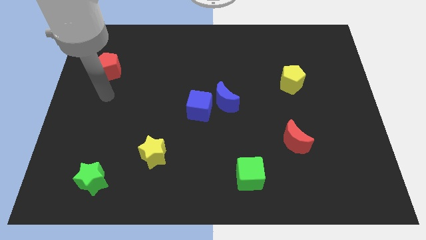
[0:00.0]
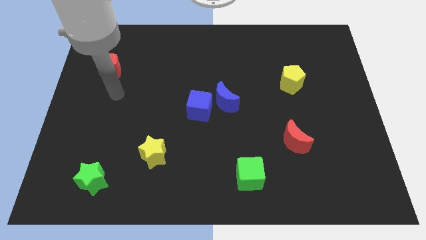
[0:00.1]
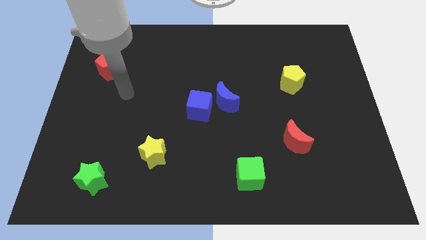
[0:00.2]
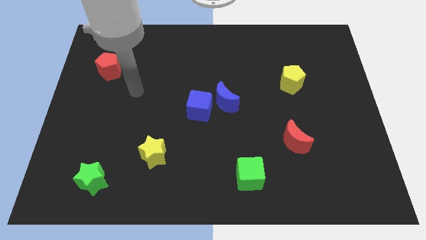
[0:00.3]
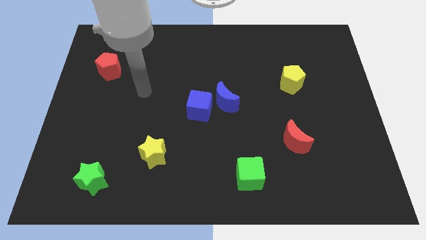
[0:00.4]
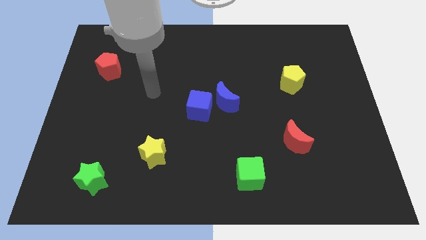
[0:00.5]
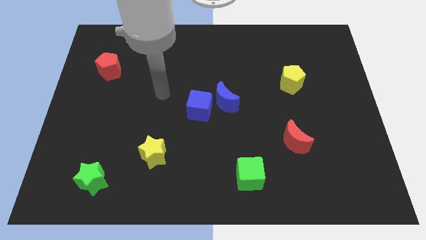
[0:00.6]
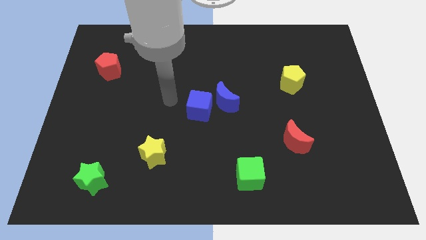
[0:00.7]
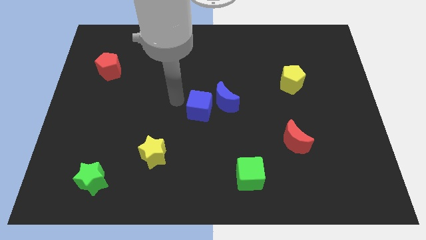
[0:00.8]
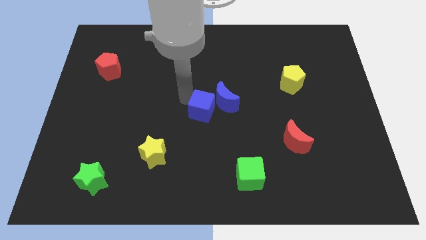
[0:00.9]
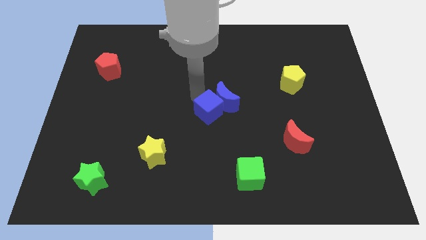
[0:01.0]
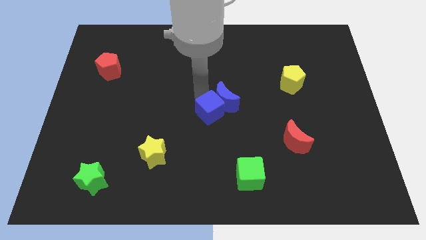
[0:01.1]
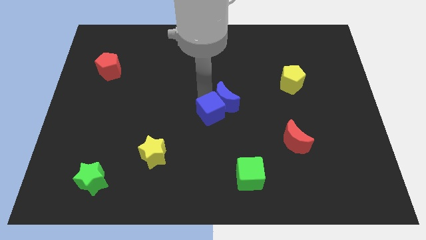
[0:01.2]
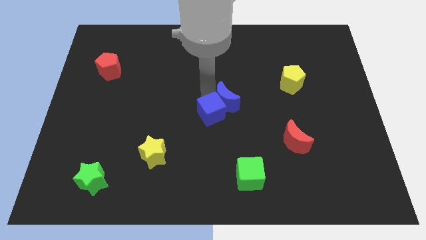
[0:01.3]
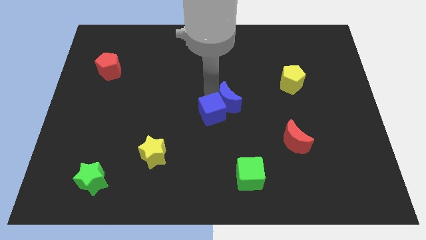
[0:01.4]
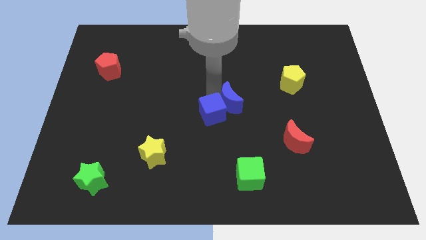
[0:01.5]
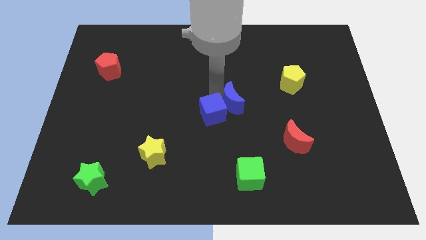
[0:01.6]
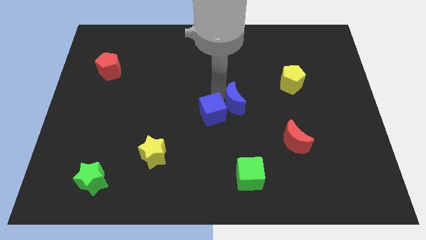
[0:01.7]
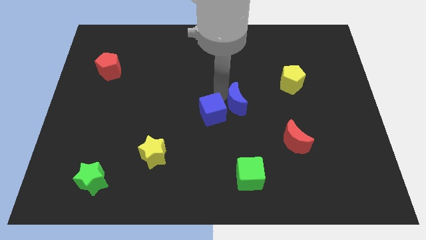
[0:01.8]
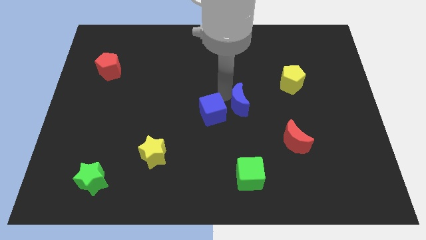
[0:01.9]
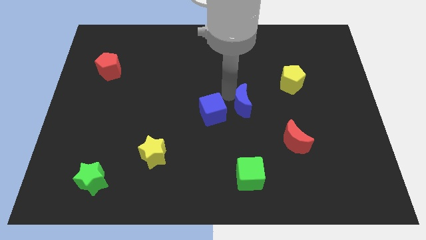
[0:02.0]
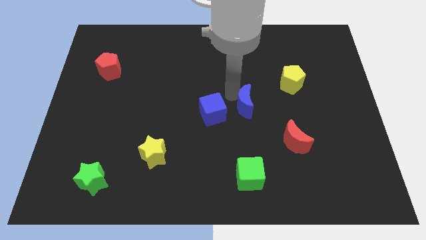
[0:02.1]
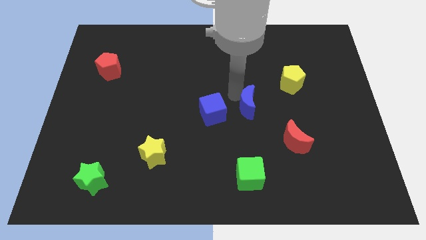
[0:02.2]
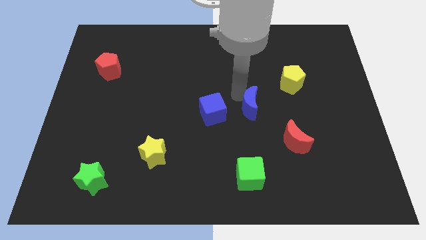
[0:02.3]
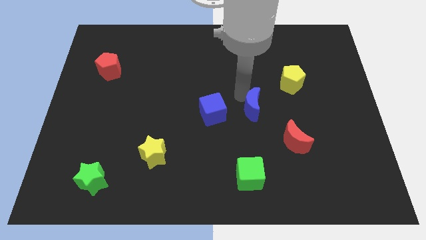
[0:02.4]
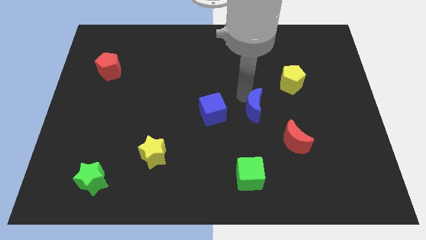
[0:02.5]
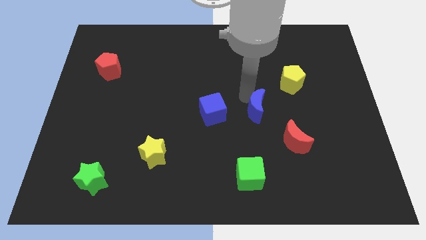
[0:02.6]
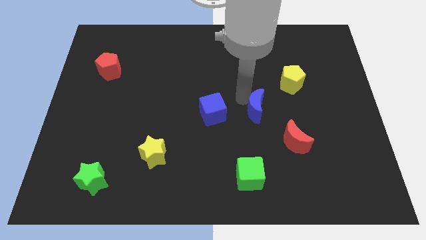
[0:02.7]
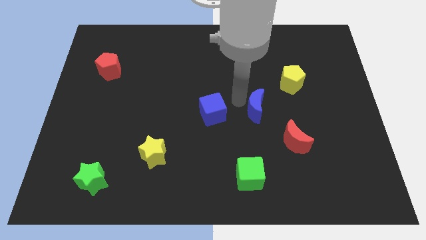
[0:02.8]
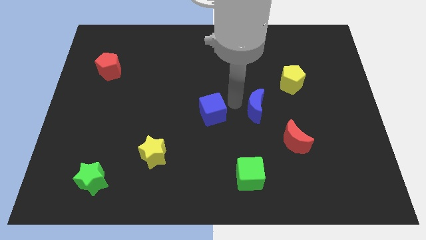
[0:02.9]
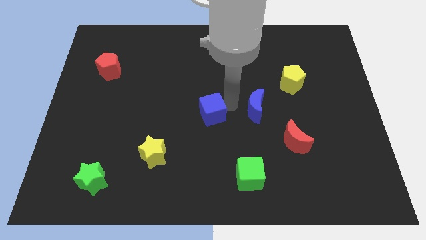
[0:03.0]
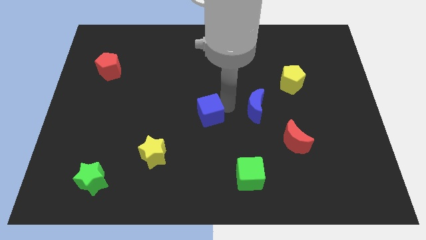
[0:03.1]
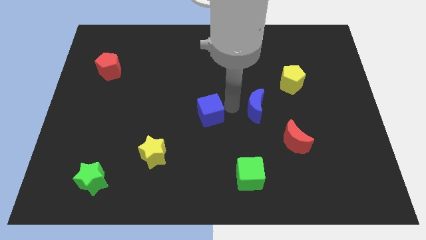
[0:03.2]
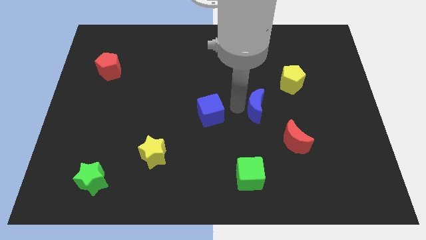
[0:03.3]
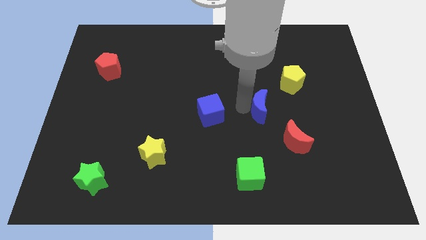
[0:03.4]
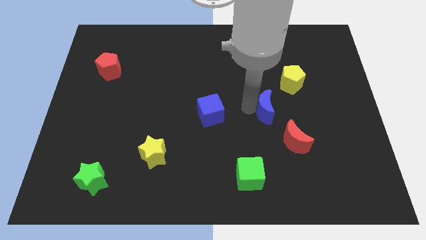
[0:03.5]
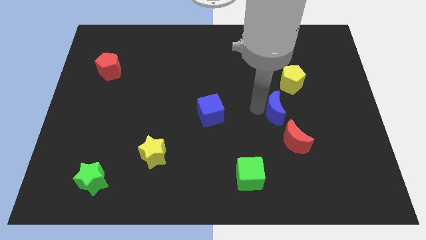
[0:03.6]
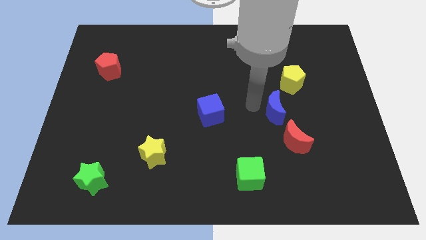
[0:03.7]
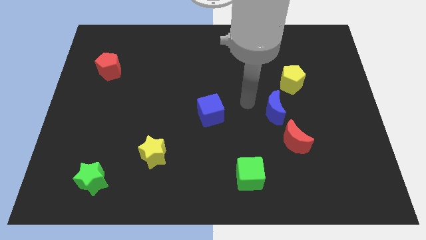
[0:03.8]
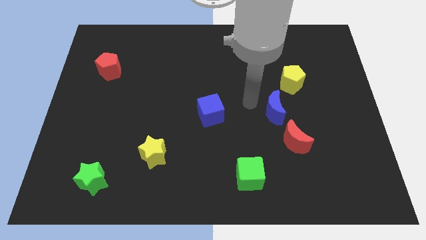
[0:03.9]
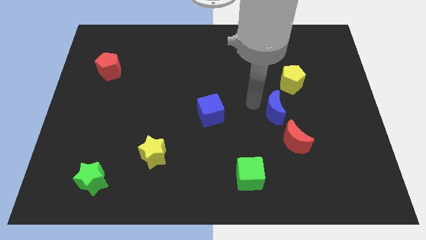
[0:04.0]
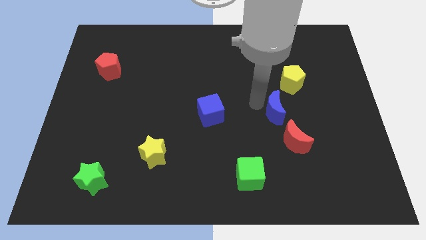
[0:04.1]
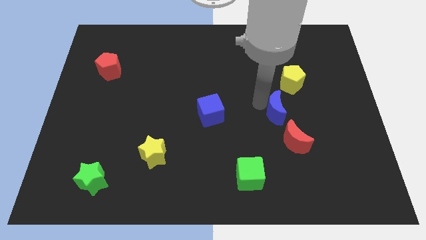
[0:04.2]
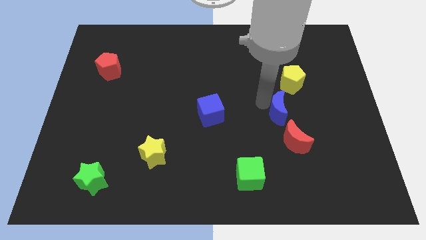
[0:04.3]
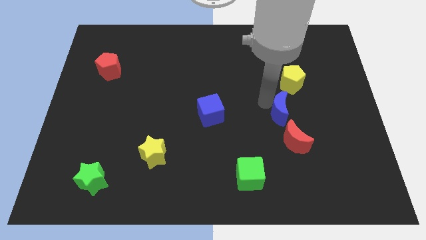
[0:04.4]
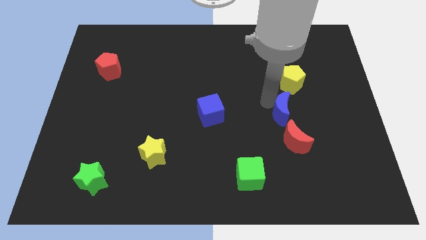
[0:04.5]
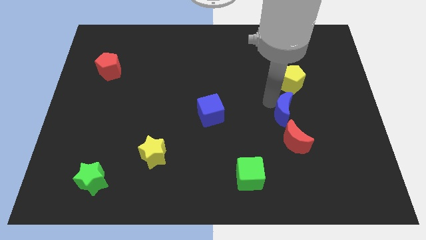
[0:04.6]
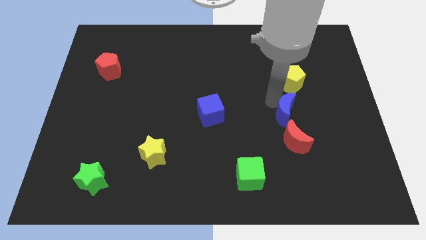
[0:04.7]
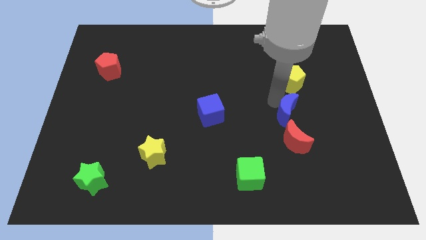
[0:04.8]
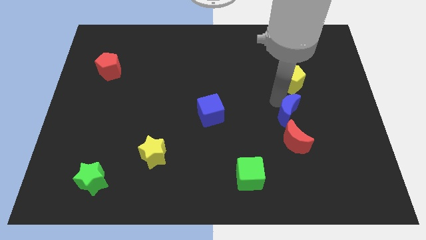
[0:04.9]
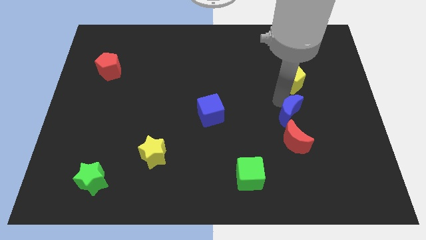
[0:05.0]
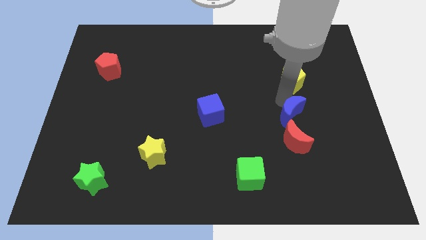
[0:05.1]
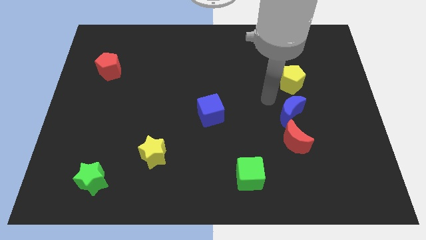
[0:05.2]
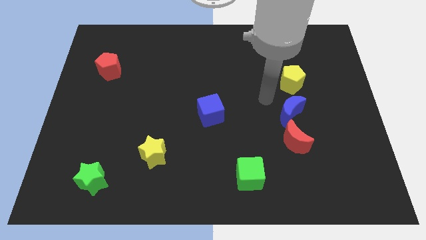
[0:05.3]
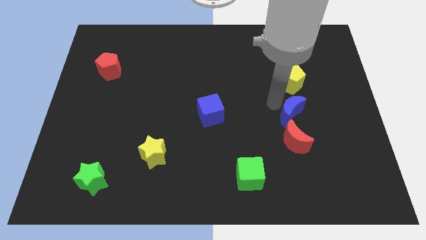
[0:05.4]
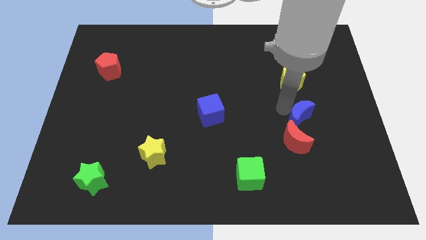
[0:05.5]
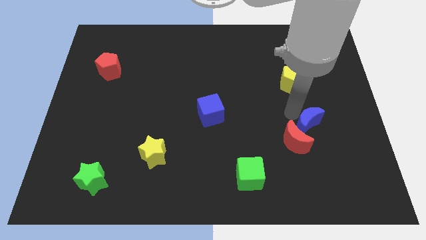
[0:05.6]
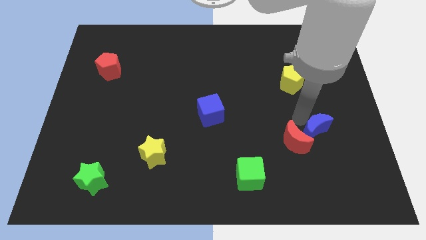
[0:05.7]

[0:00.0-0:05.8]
put the blue moon just right of the red moon

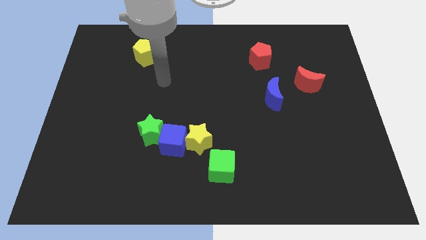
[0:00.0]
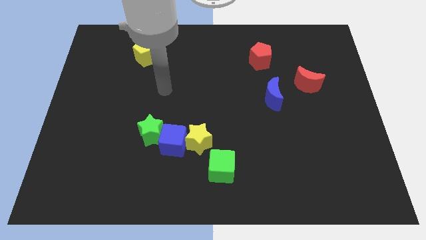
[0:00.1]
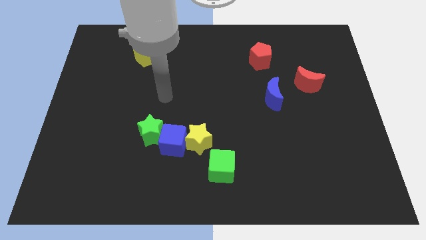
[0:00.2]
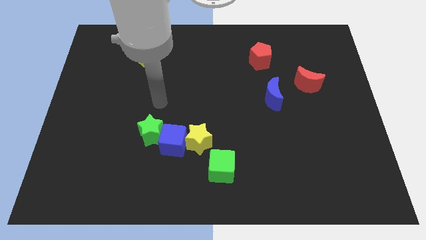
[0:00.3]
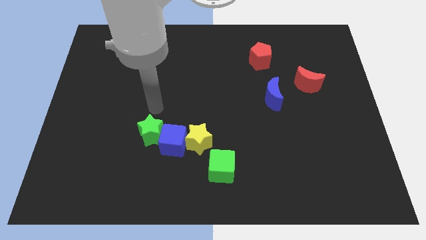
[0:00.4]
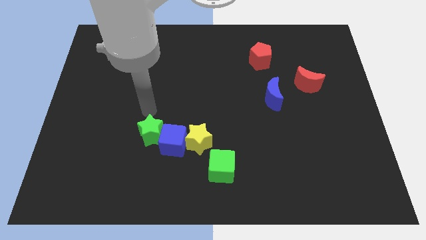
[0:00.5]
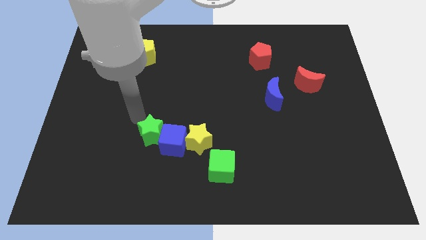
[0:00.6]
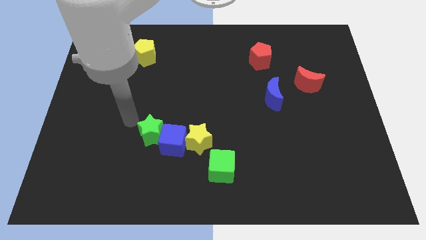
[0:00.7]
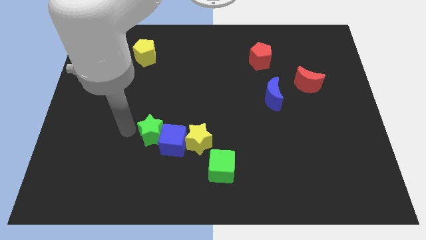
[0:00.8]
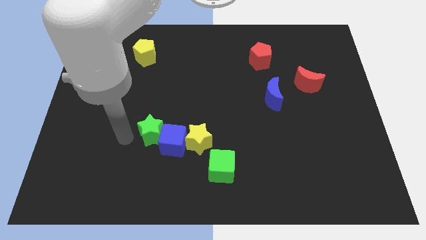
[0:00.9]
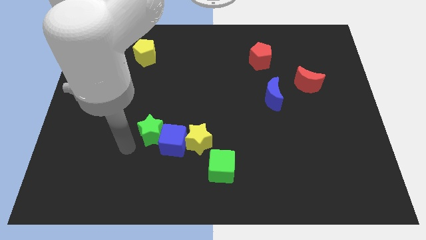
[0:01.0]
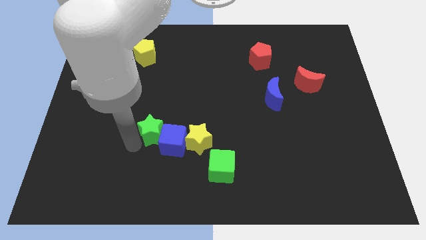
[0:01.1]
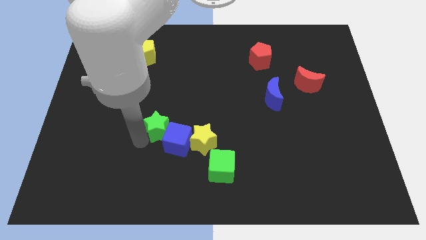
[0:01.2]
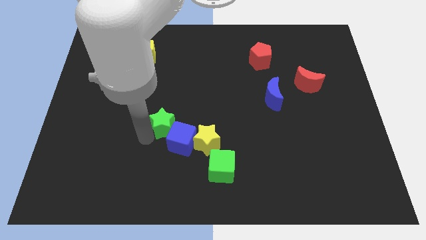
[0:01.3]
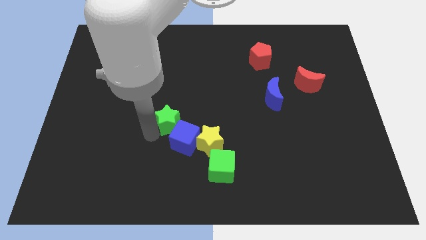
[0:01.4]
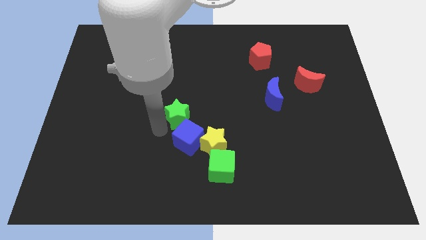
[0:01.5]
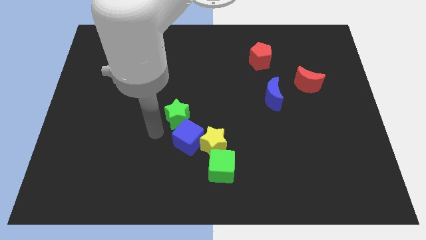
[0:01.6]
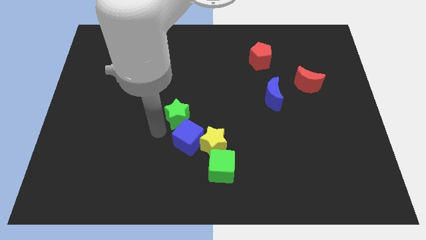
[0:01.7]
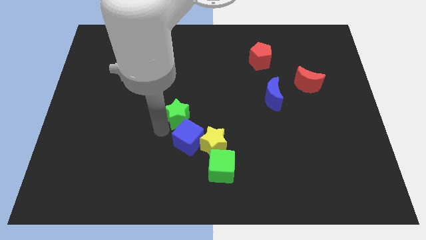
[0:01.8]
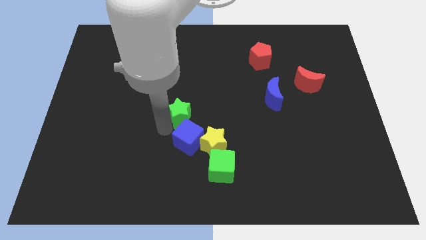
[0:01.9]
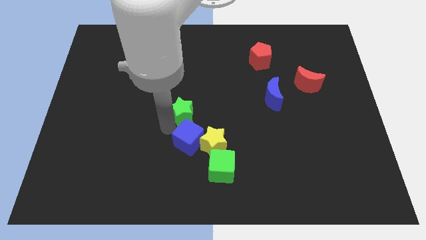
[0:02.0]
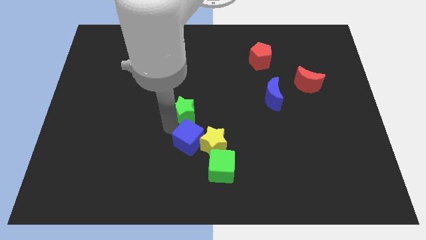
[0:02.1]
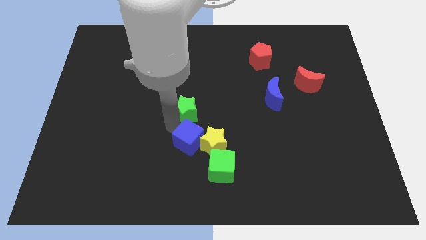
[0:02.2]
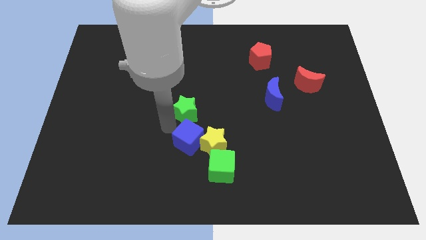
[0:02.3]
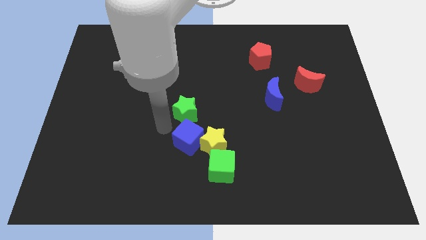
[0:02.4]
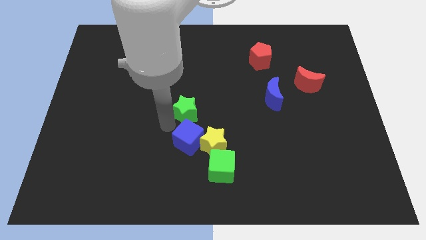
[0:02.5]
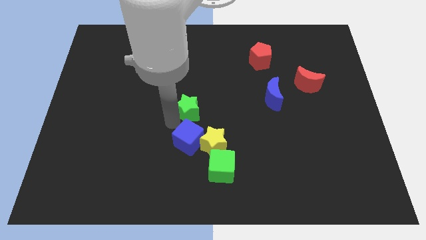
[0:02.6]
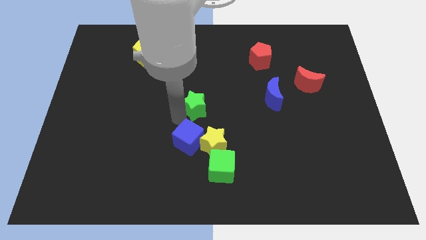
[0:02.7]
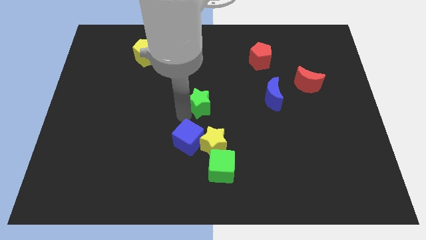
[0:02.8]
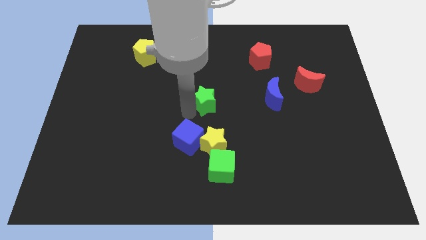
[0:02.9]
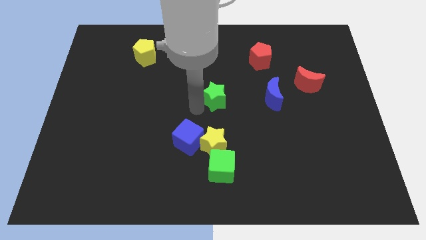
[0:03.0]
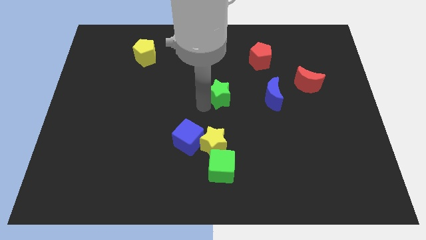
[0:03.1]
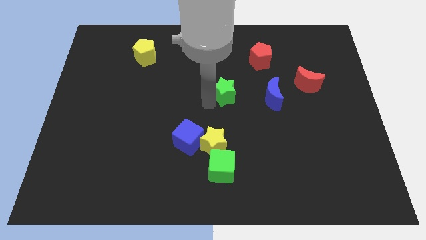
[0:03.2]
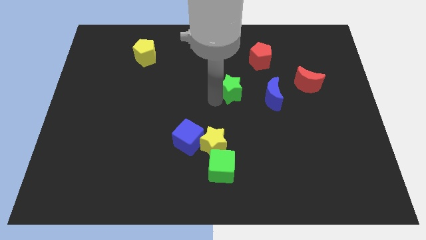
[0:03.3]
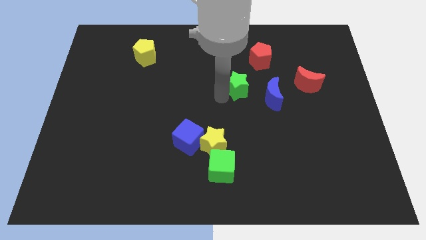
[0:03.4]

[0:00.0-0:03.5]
slide the green star to the top left of the blue moon
